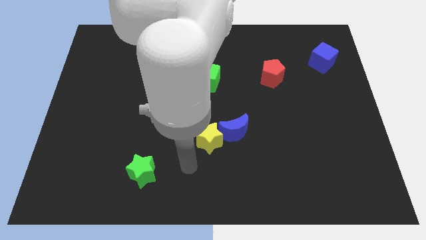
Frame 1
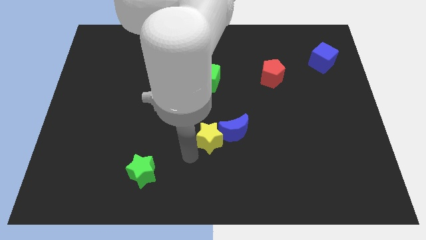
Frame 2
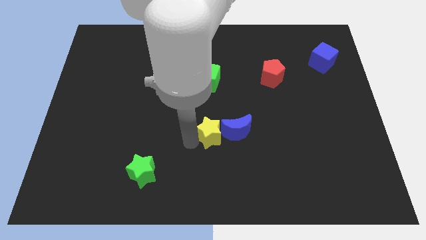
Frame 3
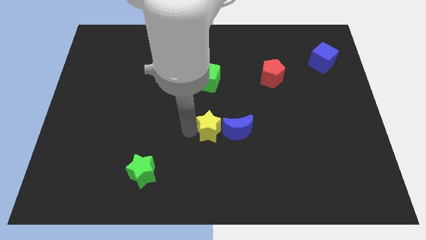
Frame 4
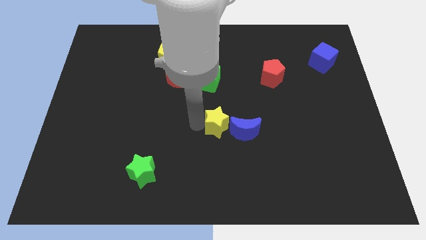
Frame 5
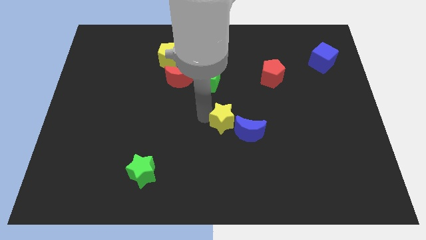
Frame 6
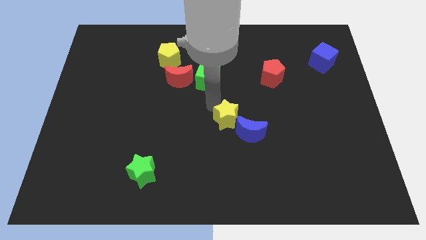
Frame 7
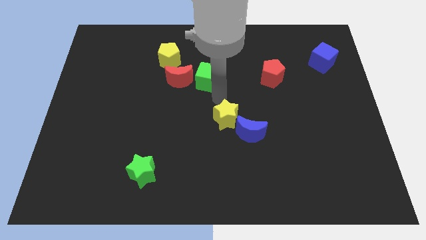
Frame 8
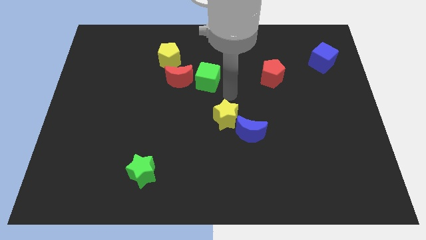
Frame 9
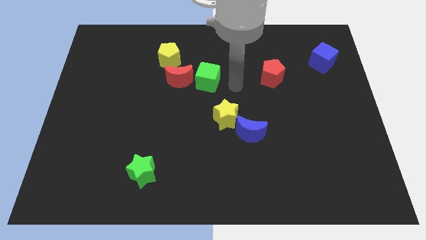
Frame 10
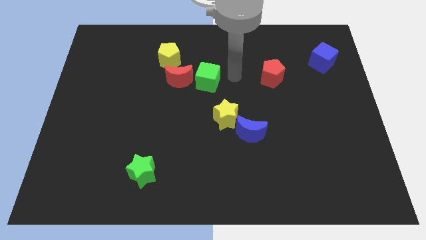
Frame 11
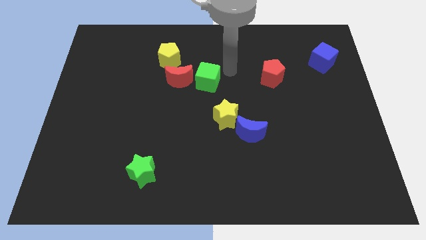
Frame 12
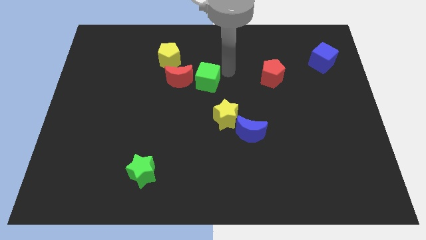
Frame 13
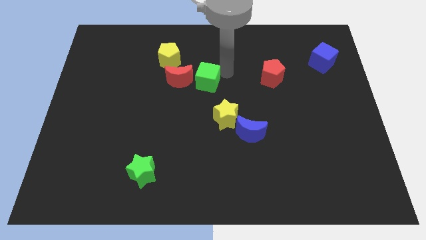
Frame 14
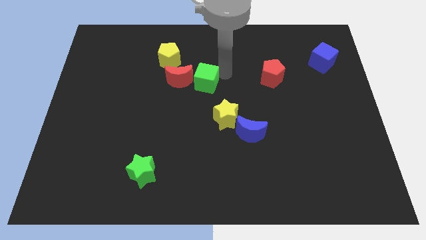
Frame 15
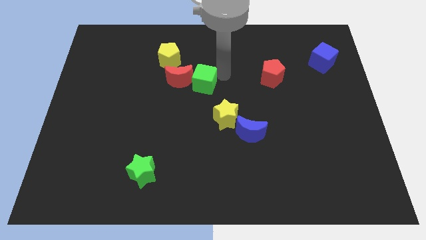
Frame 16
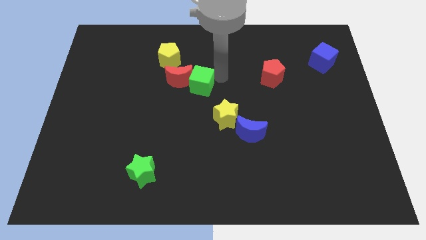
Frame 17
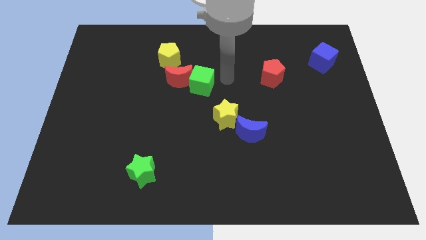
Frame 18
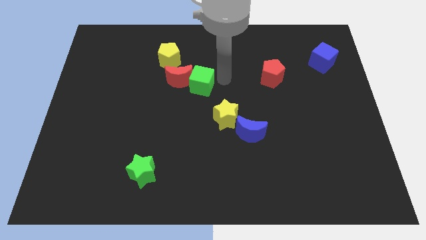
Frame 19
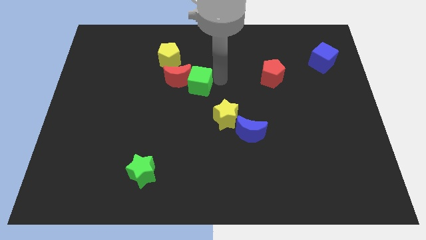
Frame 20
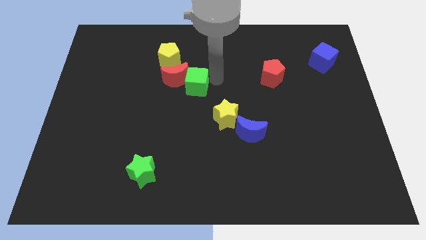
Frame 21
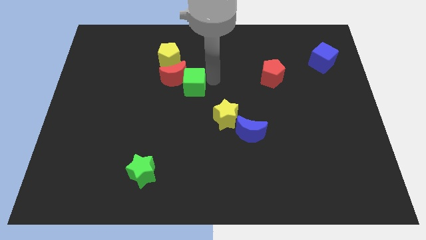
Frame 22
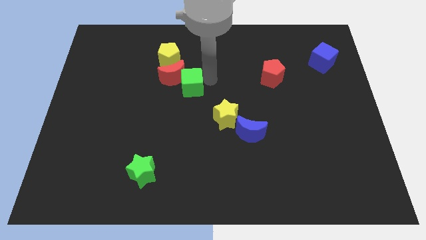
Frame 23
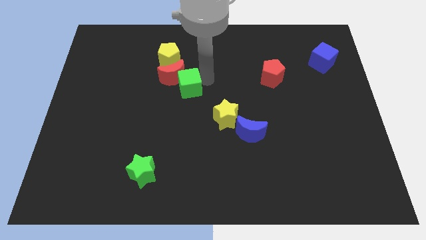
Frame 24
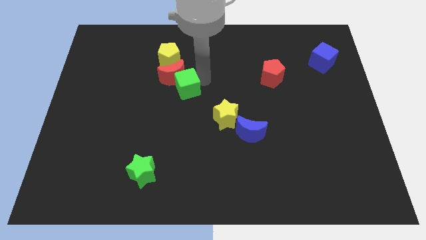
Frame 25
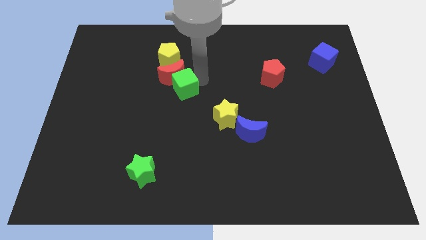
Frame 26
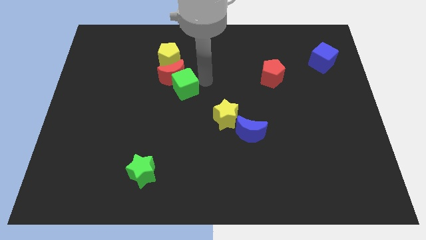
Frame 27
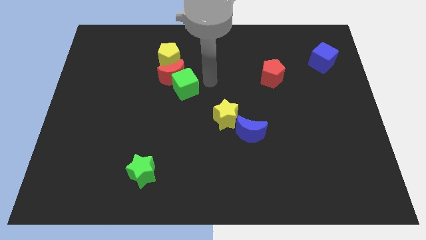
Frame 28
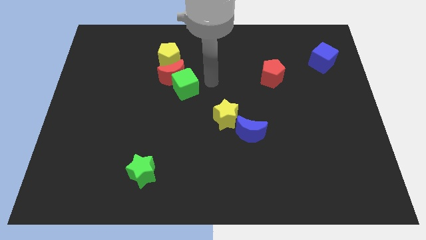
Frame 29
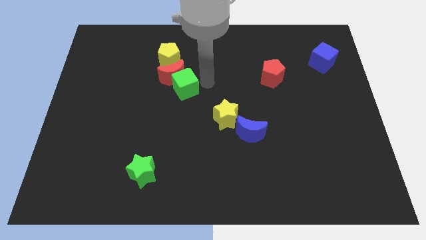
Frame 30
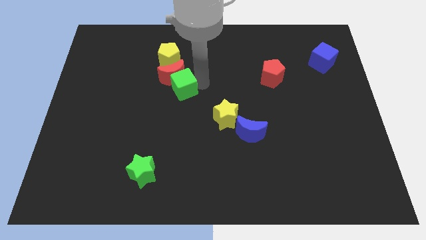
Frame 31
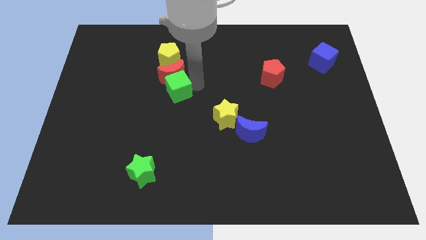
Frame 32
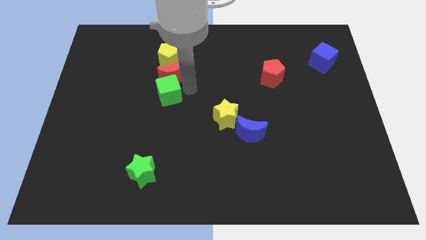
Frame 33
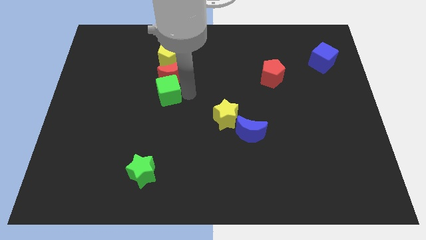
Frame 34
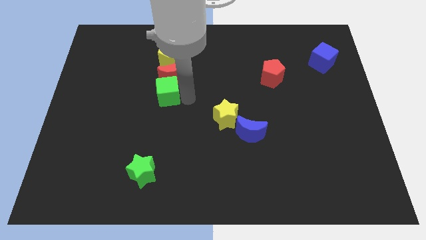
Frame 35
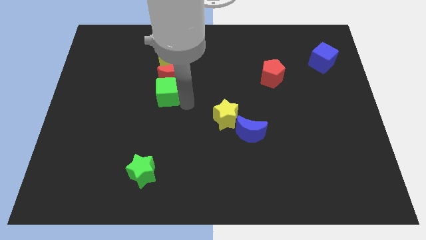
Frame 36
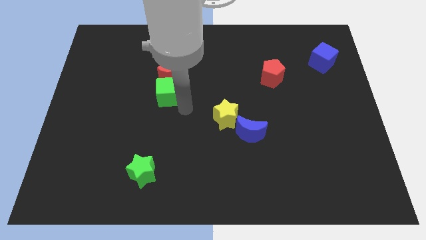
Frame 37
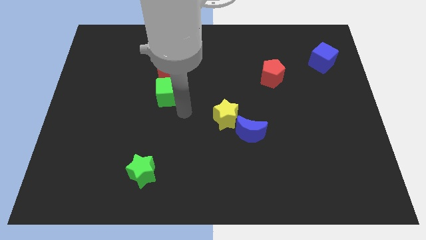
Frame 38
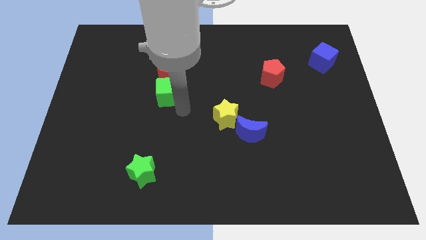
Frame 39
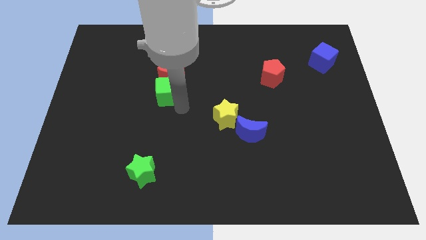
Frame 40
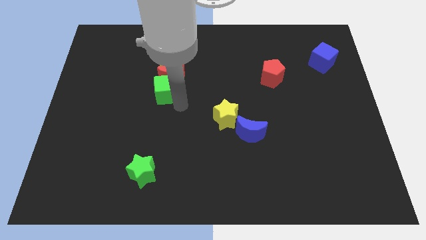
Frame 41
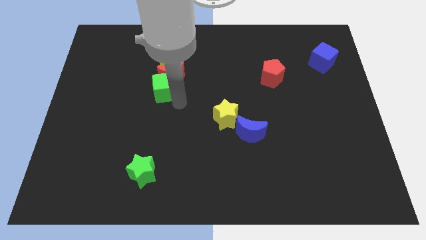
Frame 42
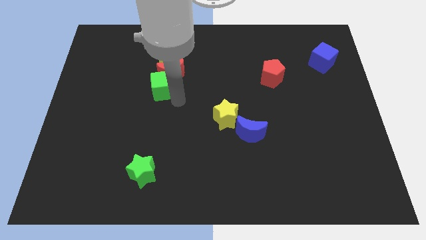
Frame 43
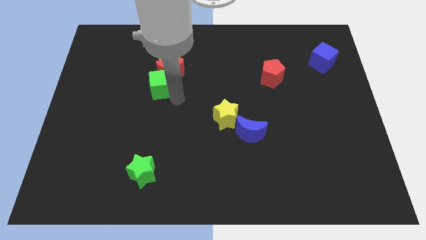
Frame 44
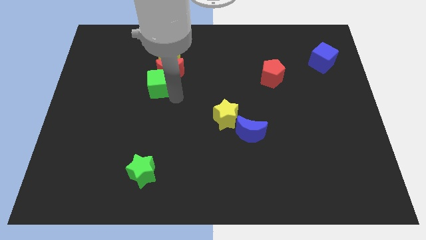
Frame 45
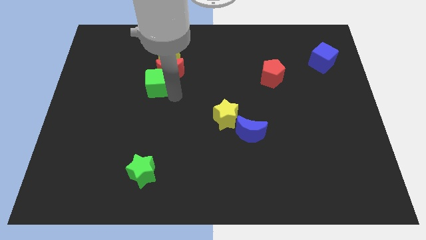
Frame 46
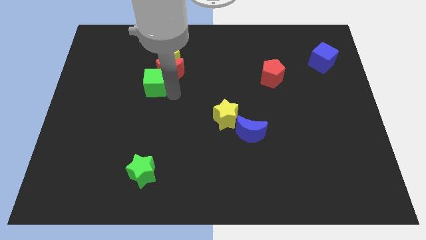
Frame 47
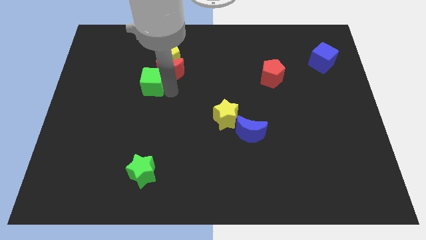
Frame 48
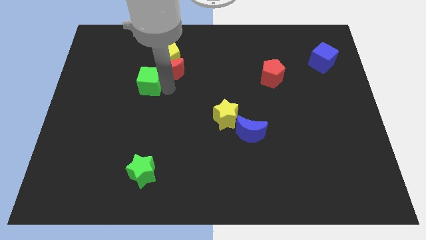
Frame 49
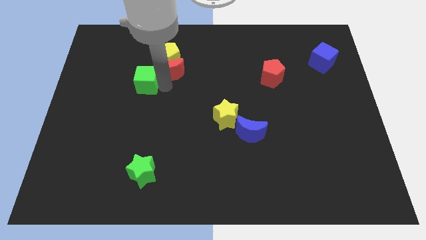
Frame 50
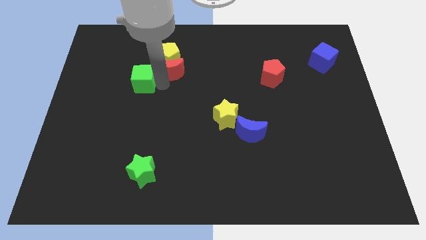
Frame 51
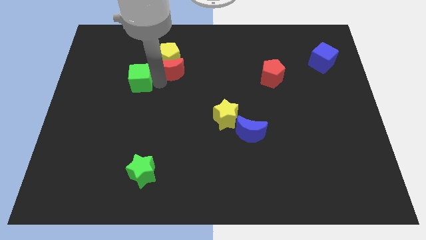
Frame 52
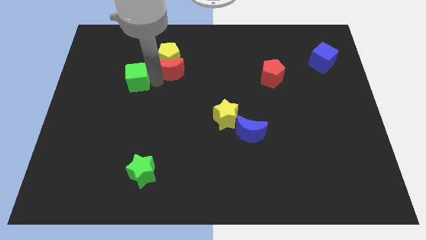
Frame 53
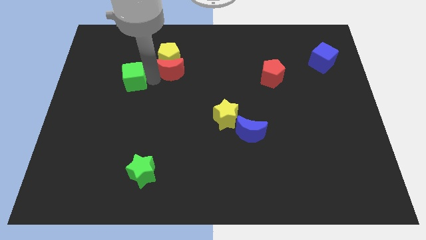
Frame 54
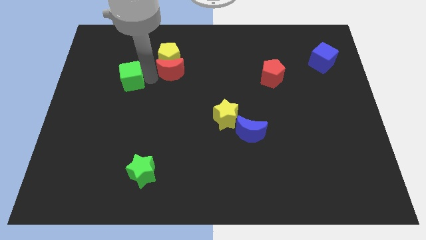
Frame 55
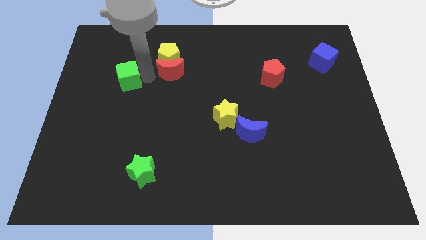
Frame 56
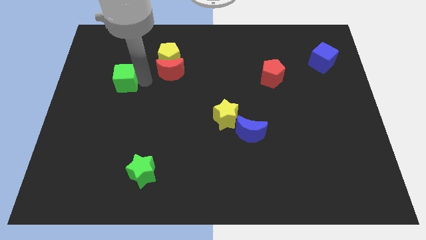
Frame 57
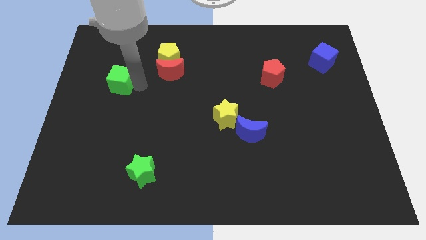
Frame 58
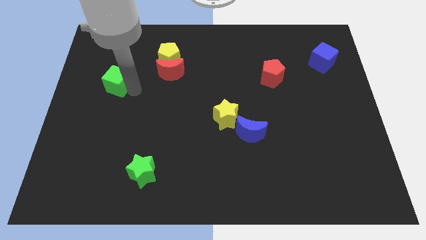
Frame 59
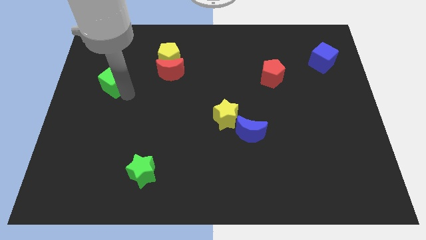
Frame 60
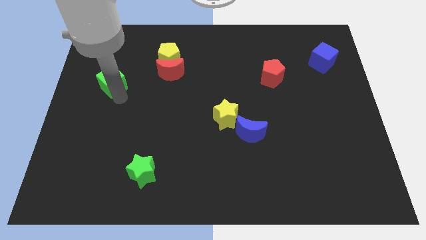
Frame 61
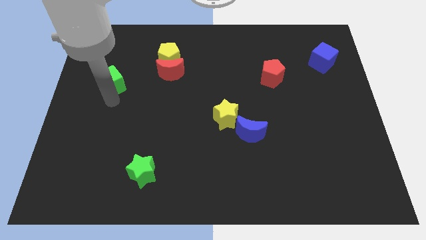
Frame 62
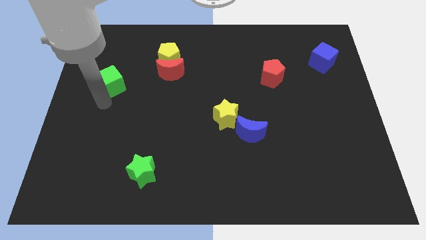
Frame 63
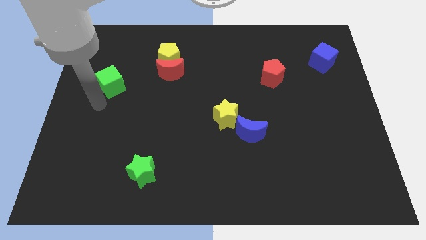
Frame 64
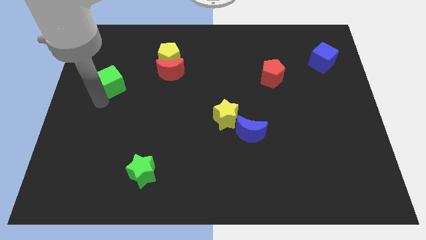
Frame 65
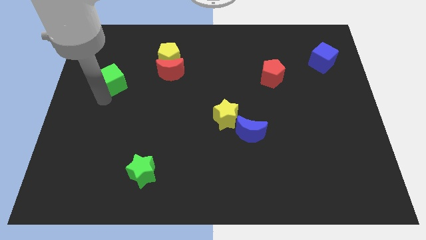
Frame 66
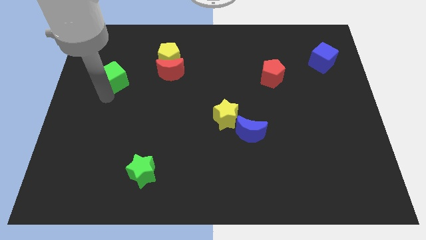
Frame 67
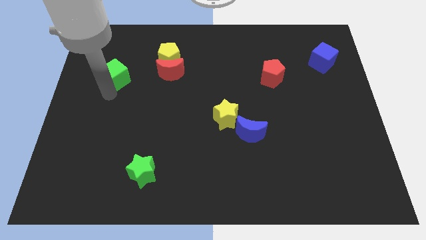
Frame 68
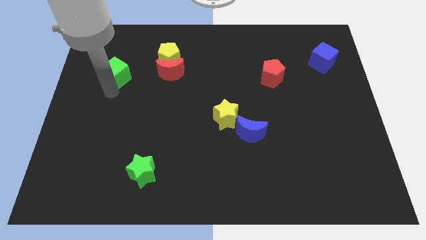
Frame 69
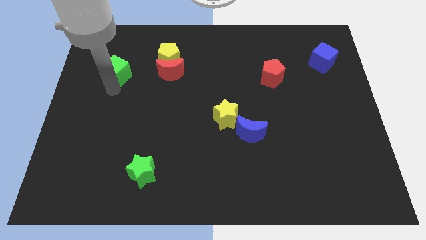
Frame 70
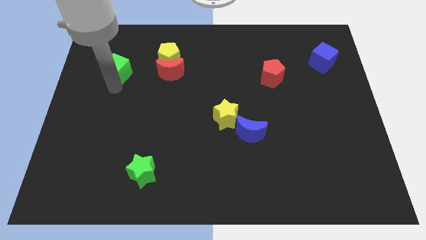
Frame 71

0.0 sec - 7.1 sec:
push the green cube to the left side of the yellow pentagon

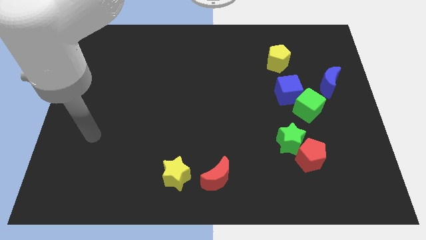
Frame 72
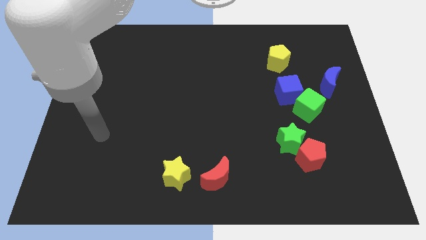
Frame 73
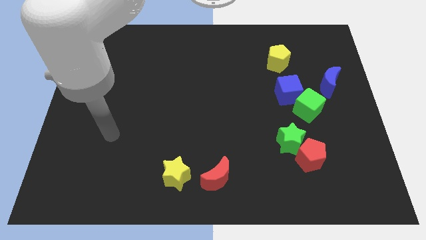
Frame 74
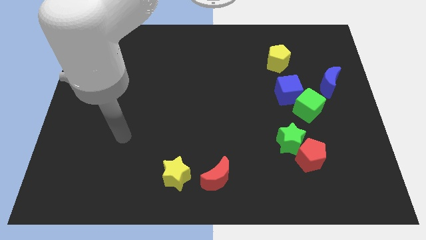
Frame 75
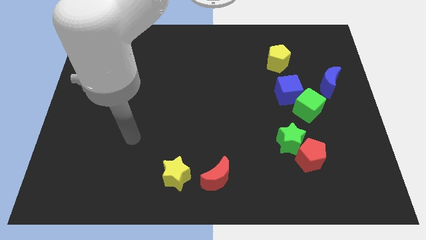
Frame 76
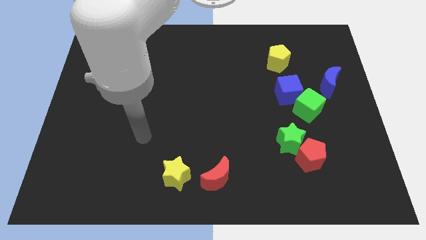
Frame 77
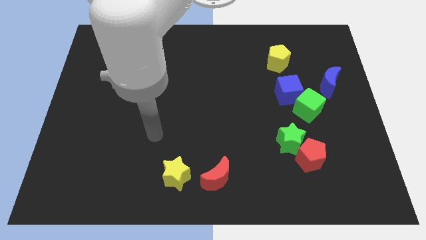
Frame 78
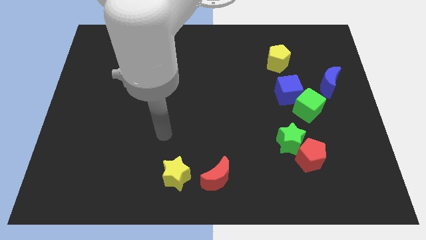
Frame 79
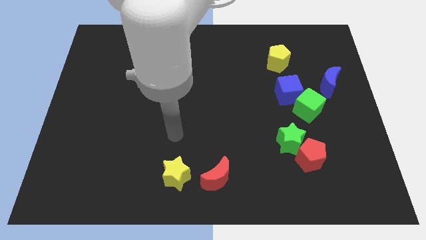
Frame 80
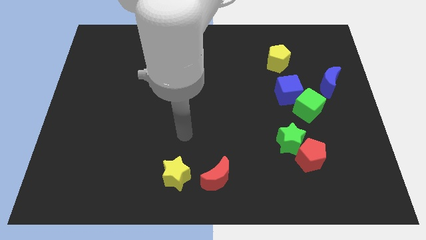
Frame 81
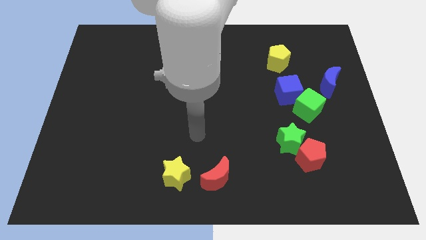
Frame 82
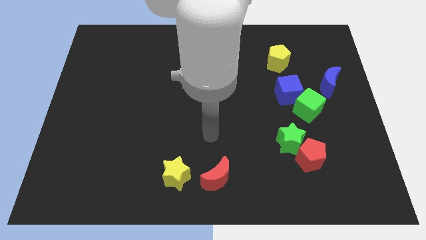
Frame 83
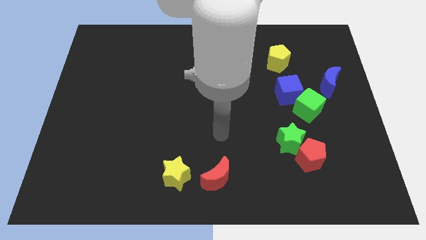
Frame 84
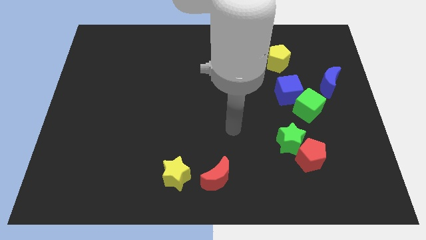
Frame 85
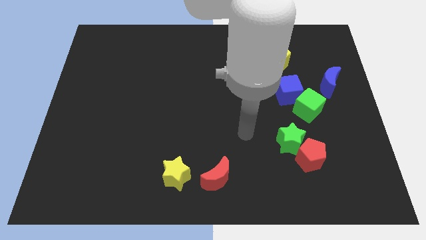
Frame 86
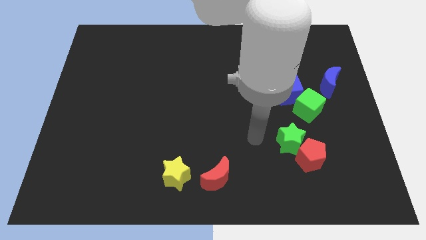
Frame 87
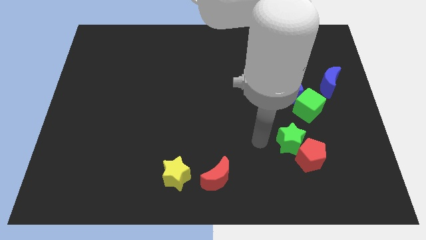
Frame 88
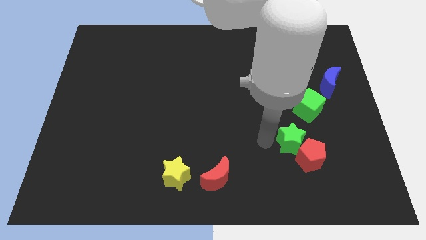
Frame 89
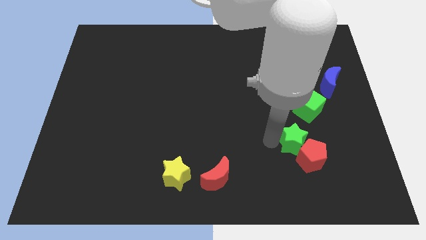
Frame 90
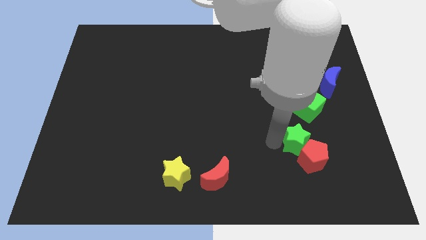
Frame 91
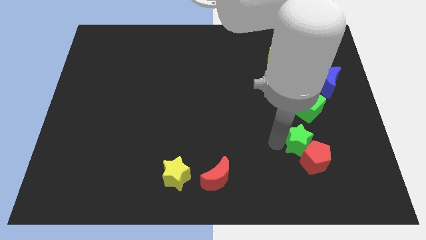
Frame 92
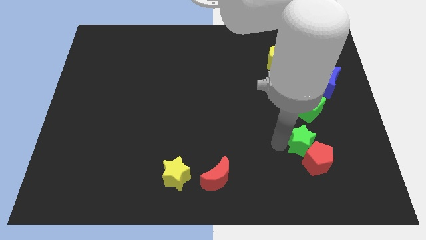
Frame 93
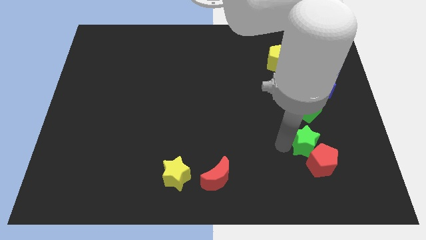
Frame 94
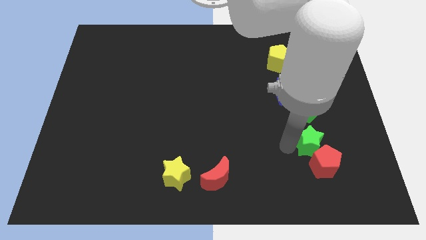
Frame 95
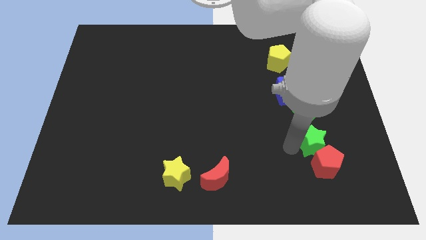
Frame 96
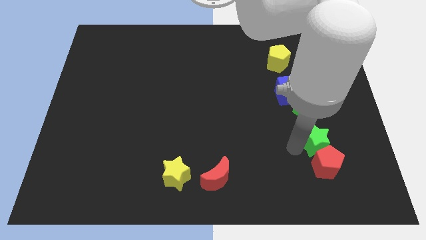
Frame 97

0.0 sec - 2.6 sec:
slide the green star diagonally up and to the right of the red pentagon
